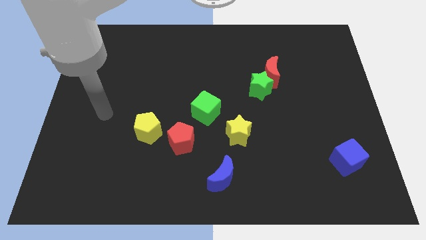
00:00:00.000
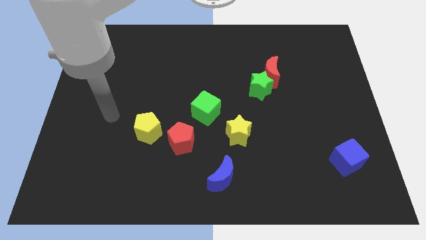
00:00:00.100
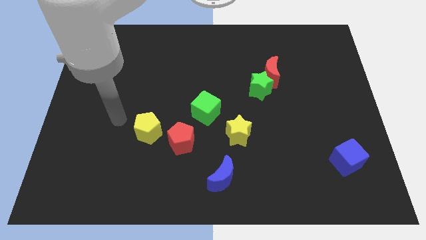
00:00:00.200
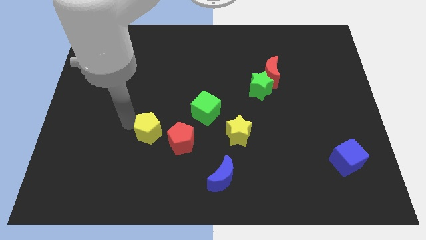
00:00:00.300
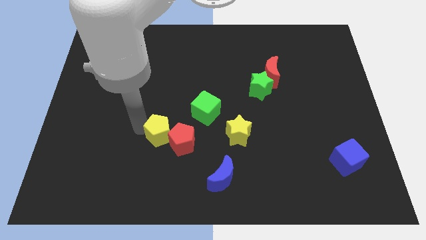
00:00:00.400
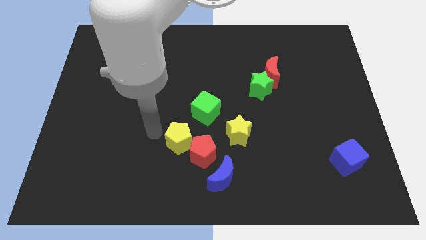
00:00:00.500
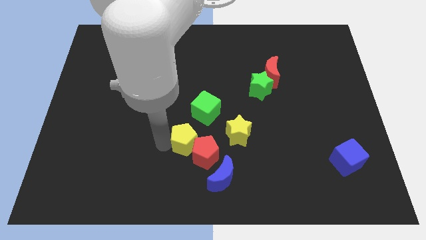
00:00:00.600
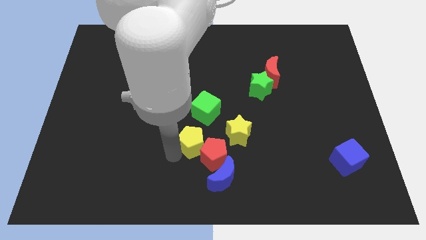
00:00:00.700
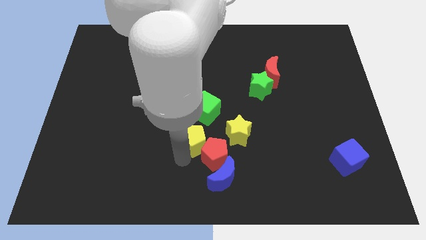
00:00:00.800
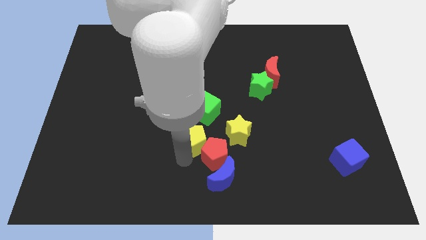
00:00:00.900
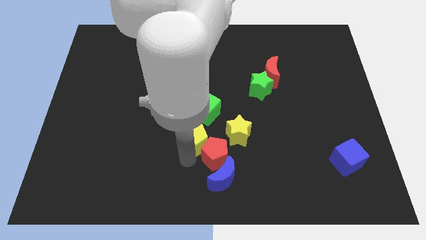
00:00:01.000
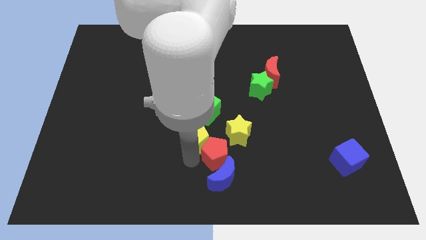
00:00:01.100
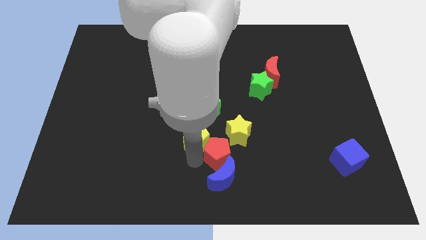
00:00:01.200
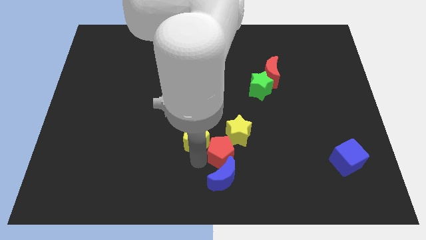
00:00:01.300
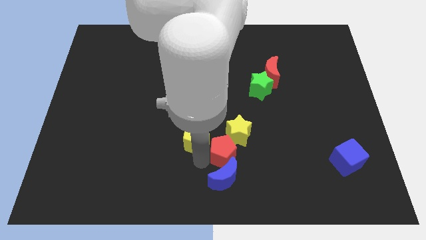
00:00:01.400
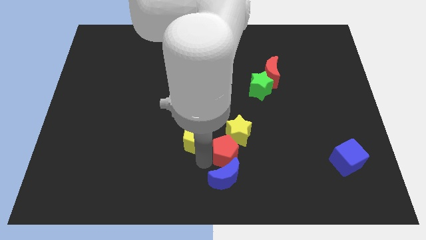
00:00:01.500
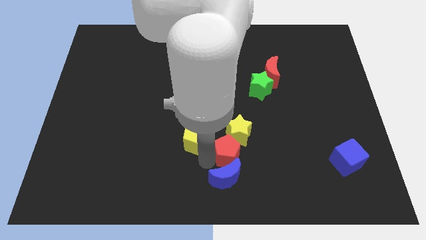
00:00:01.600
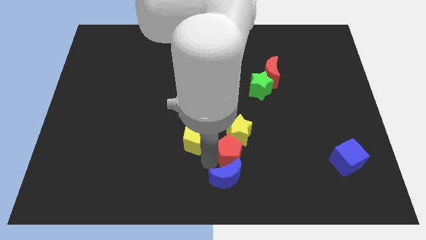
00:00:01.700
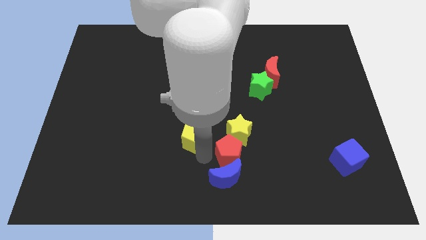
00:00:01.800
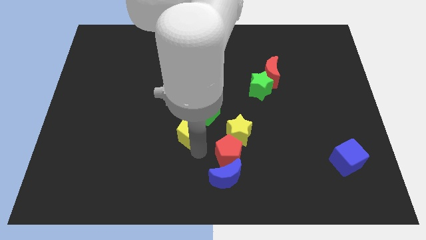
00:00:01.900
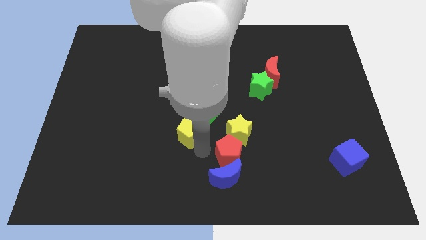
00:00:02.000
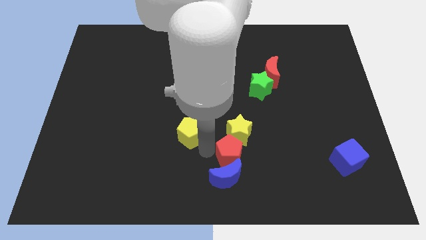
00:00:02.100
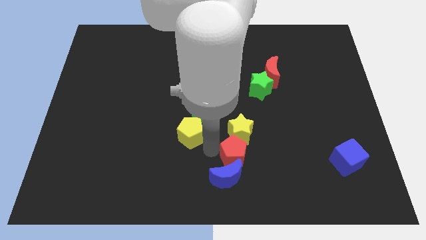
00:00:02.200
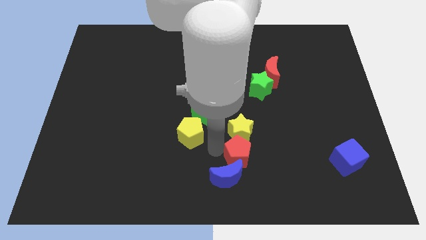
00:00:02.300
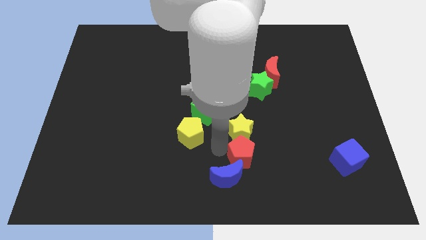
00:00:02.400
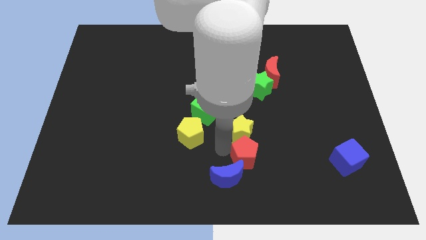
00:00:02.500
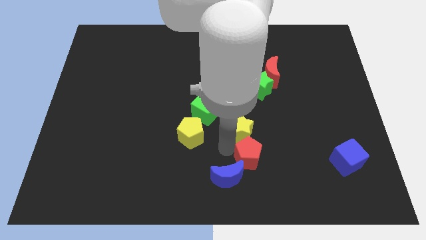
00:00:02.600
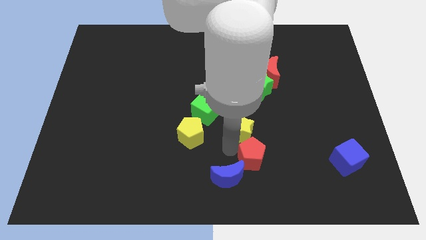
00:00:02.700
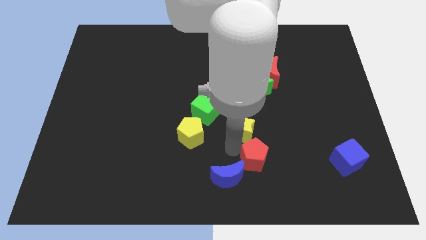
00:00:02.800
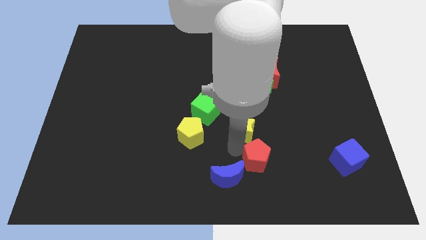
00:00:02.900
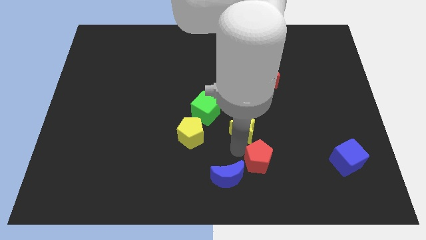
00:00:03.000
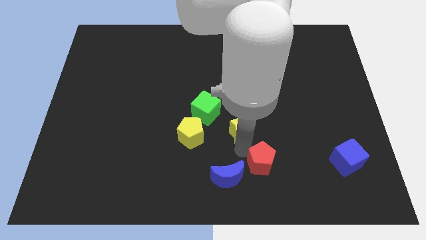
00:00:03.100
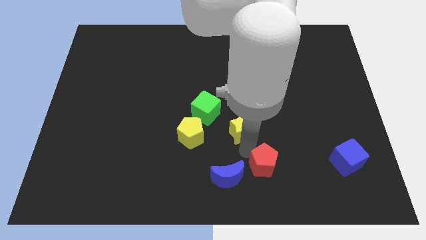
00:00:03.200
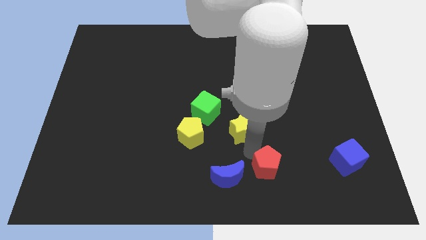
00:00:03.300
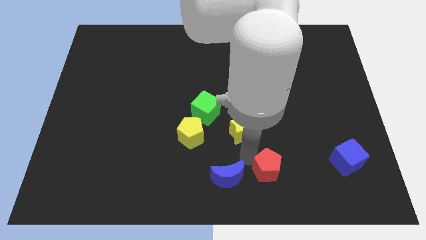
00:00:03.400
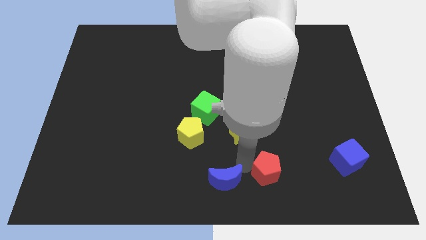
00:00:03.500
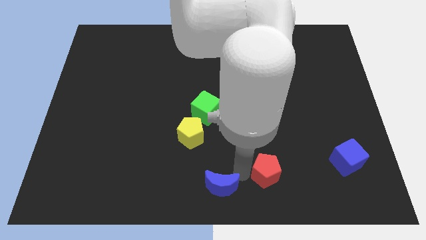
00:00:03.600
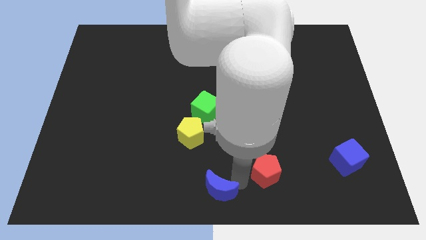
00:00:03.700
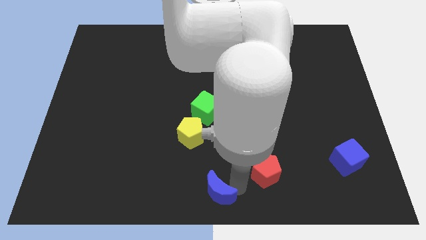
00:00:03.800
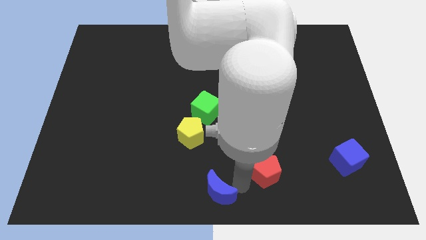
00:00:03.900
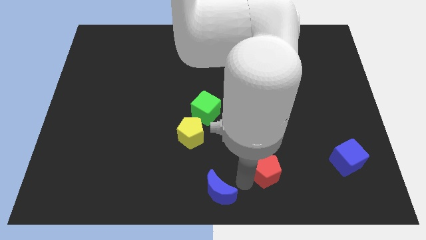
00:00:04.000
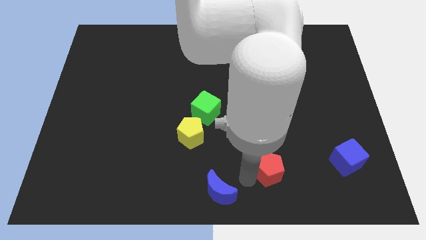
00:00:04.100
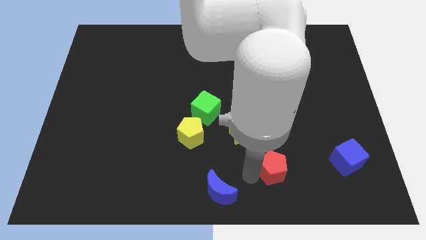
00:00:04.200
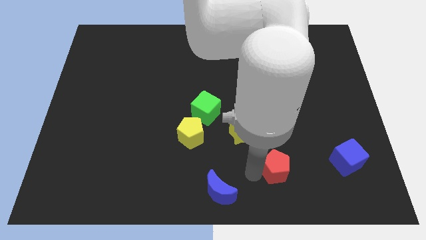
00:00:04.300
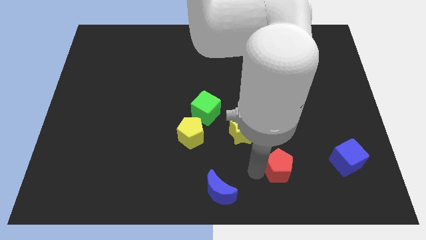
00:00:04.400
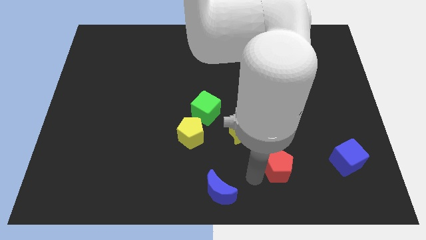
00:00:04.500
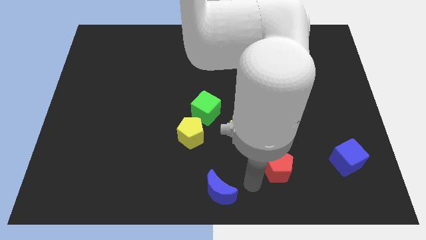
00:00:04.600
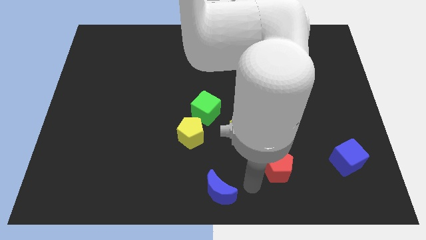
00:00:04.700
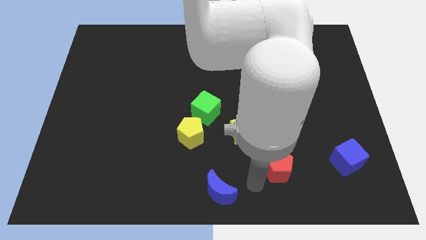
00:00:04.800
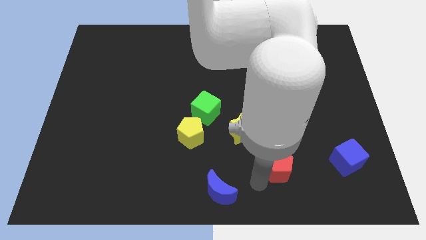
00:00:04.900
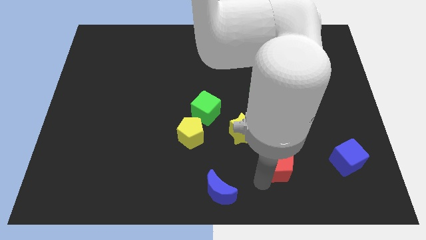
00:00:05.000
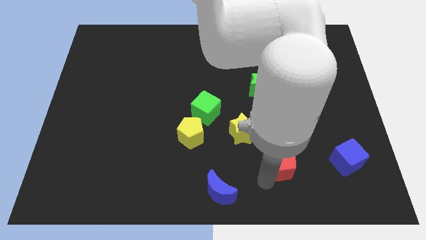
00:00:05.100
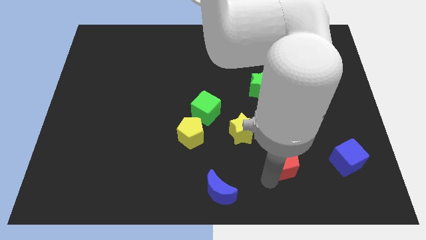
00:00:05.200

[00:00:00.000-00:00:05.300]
slide the red pentagon to the right

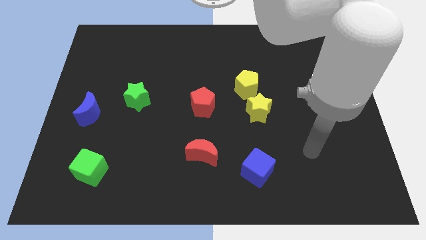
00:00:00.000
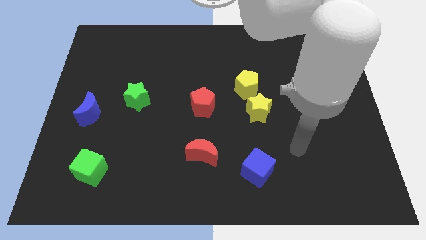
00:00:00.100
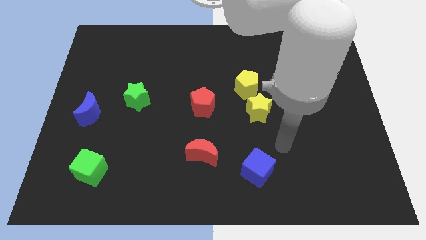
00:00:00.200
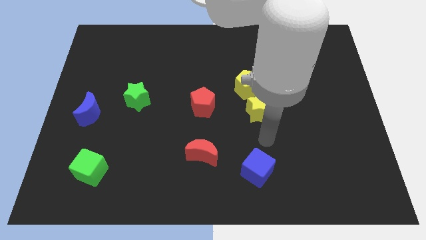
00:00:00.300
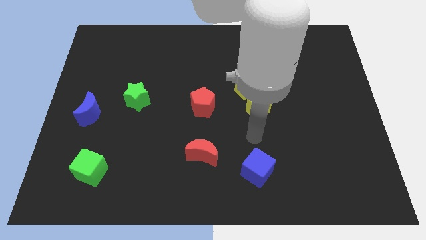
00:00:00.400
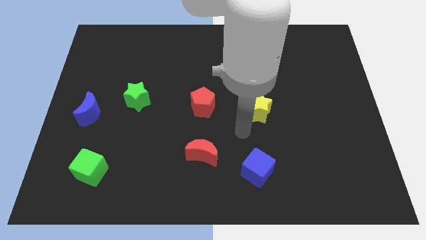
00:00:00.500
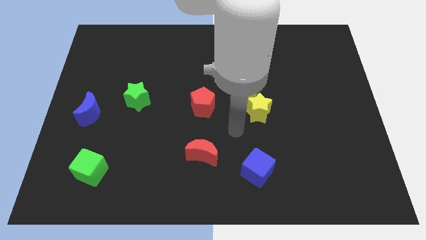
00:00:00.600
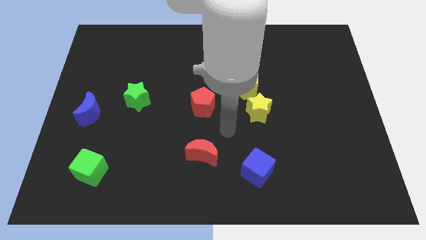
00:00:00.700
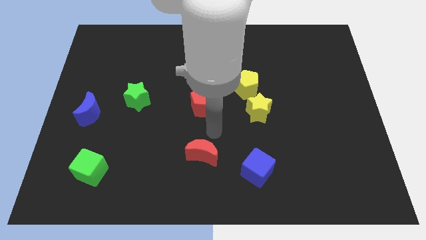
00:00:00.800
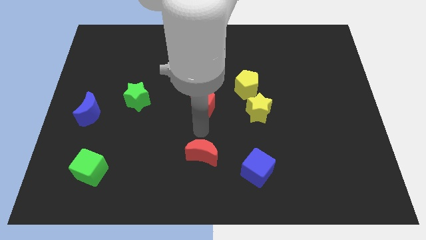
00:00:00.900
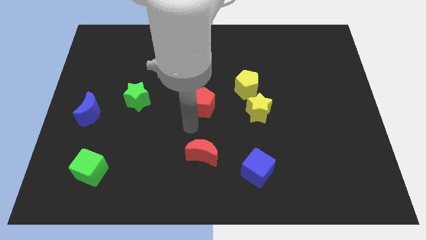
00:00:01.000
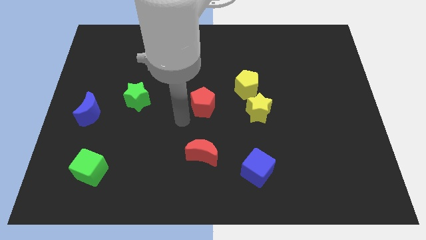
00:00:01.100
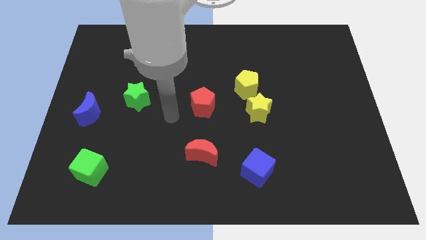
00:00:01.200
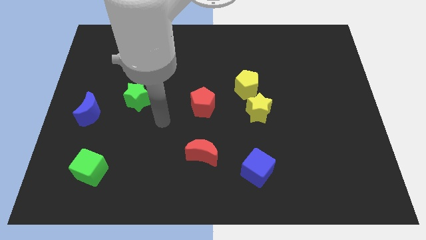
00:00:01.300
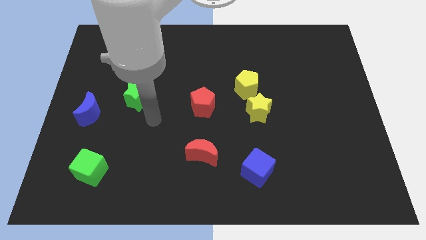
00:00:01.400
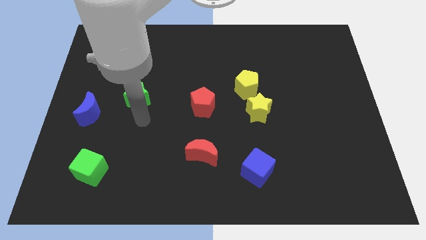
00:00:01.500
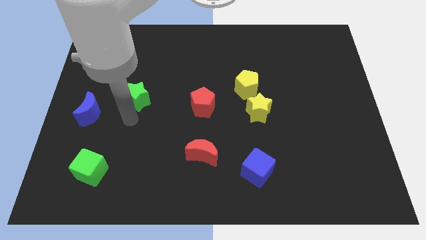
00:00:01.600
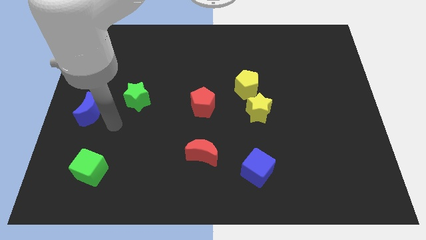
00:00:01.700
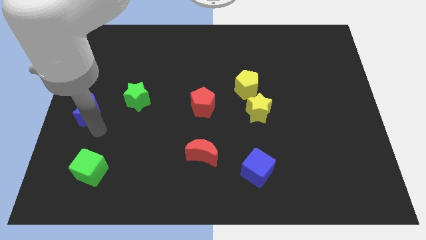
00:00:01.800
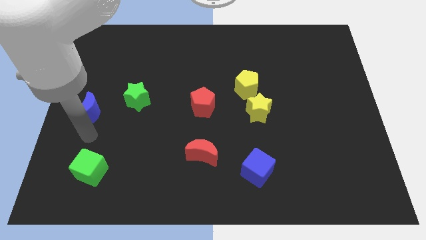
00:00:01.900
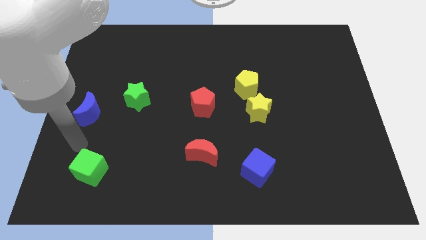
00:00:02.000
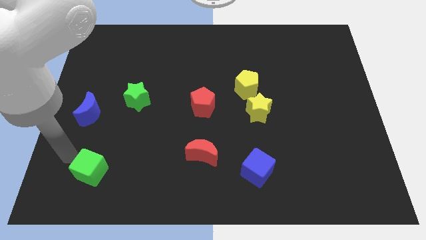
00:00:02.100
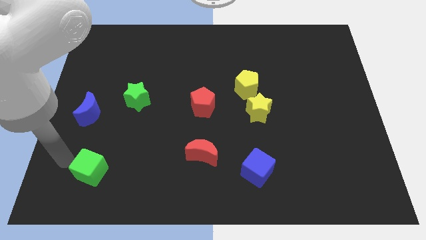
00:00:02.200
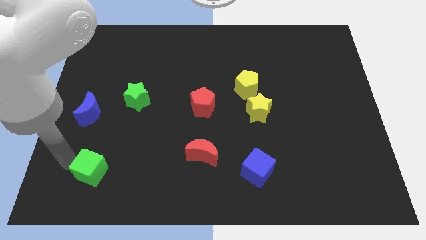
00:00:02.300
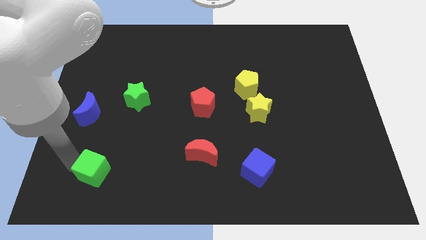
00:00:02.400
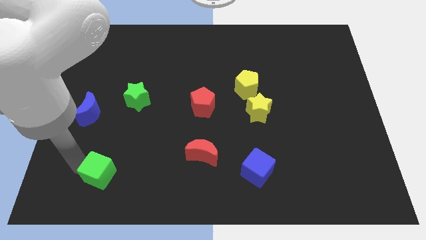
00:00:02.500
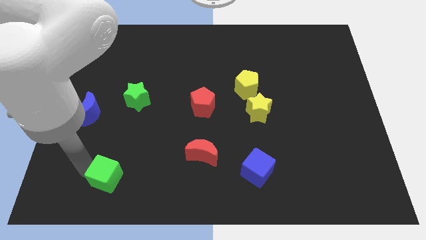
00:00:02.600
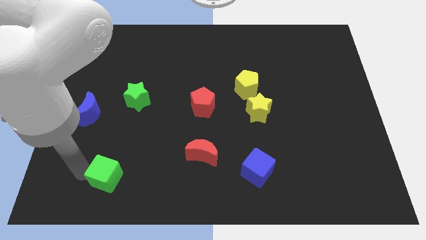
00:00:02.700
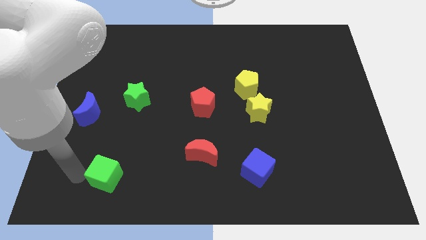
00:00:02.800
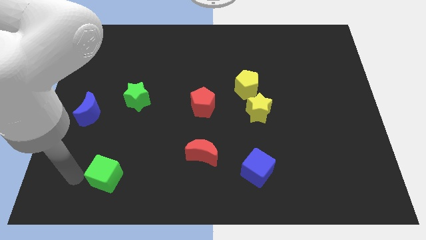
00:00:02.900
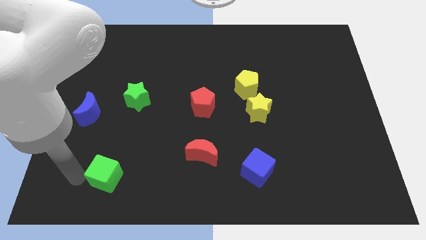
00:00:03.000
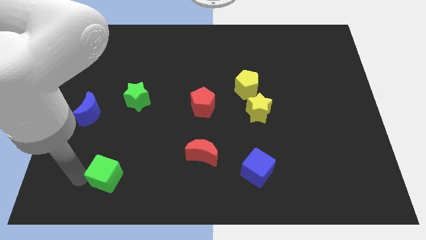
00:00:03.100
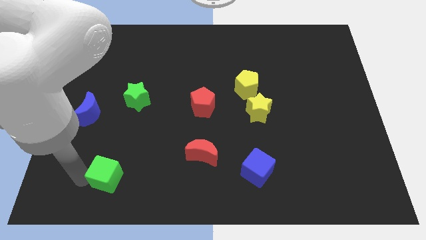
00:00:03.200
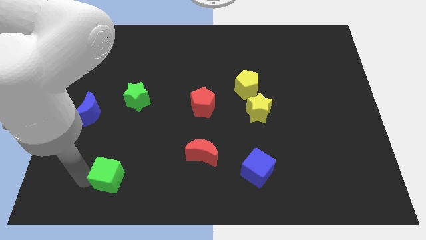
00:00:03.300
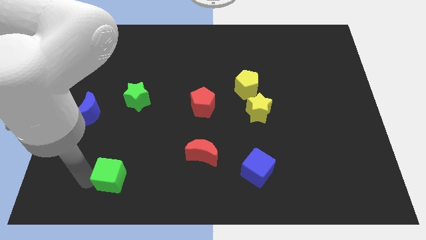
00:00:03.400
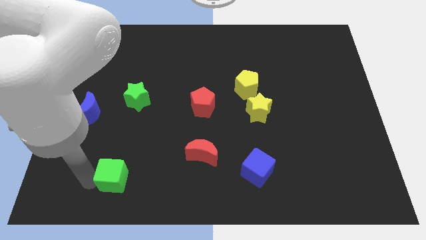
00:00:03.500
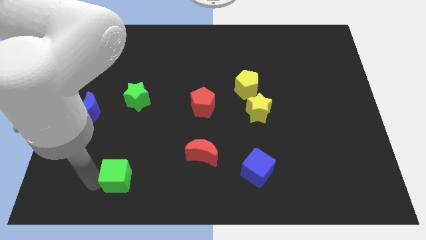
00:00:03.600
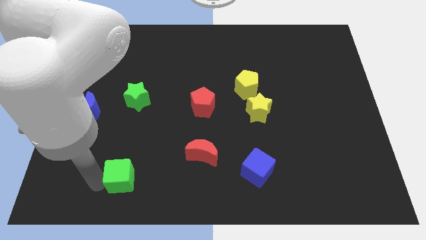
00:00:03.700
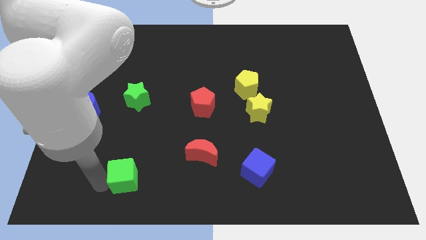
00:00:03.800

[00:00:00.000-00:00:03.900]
slightly push the green cube right
